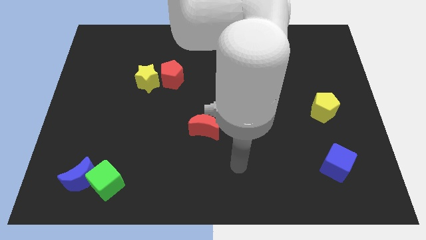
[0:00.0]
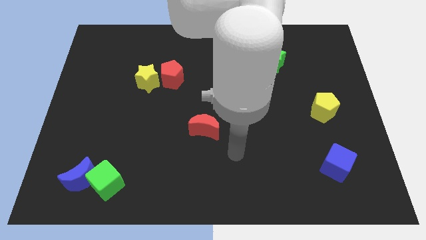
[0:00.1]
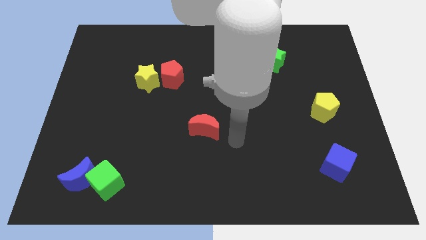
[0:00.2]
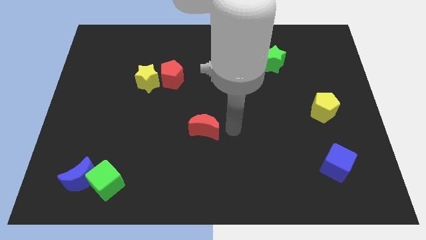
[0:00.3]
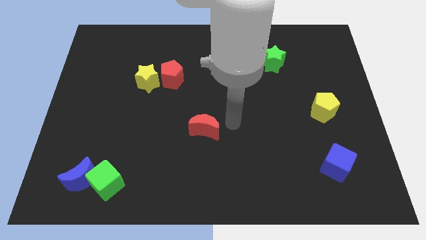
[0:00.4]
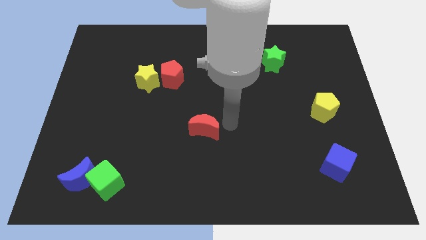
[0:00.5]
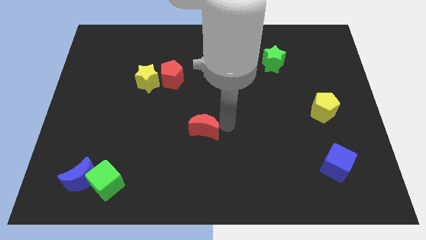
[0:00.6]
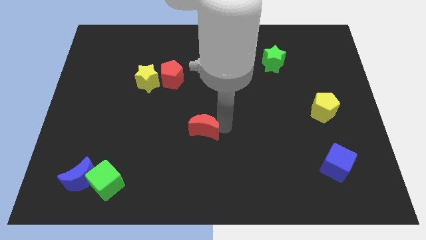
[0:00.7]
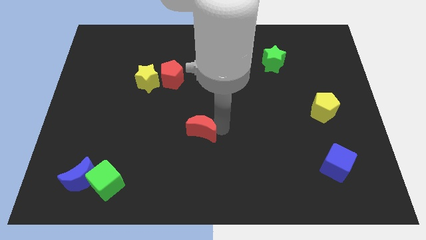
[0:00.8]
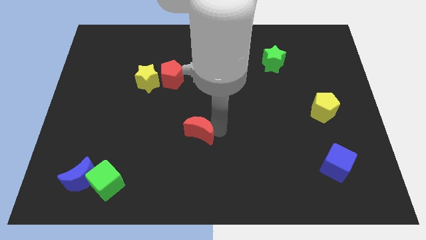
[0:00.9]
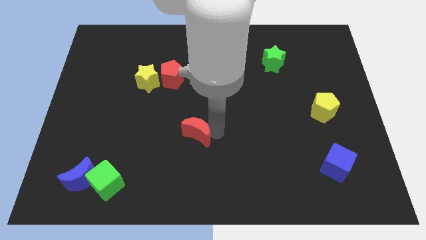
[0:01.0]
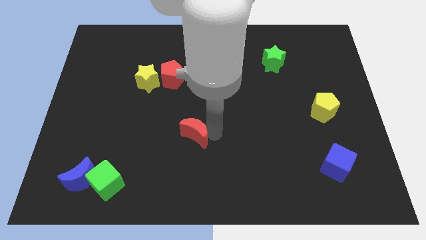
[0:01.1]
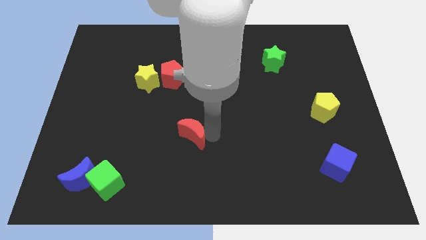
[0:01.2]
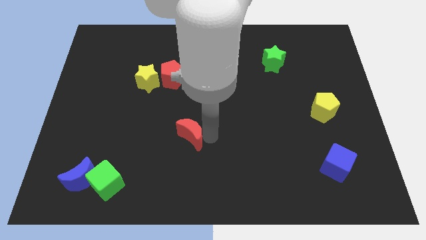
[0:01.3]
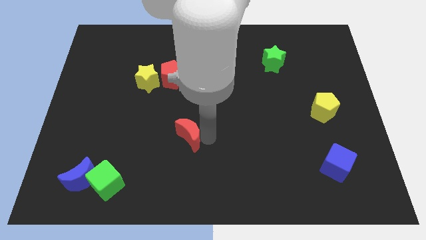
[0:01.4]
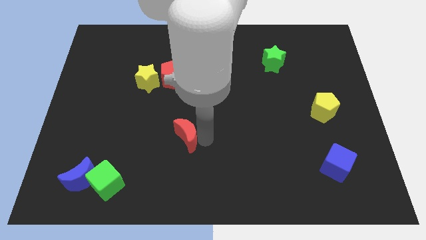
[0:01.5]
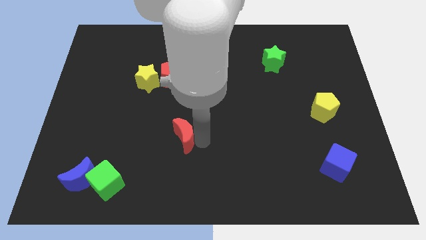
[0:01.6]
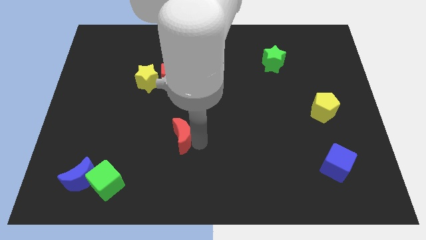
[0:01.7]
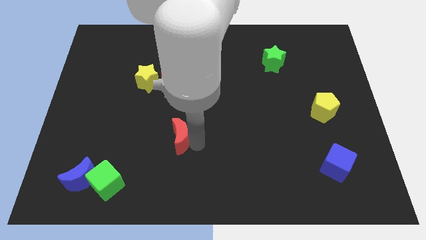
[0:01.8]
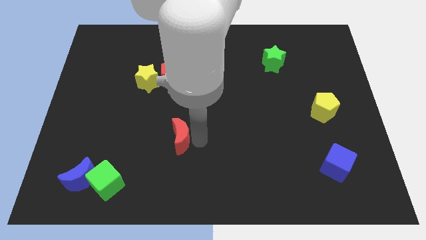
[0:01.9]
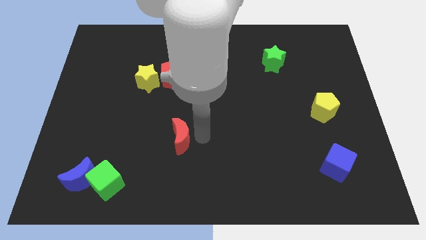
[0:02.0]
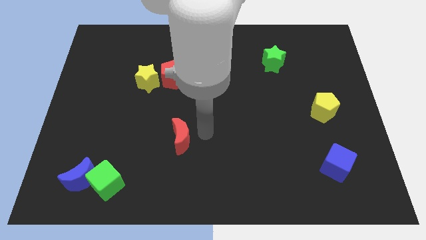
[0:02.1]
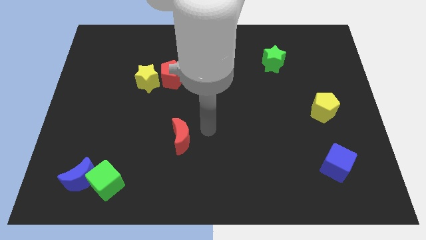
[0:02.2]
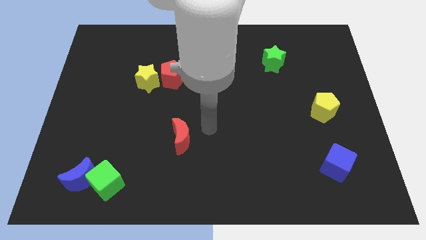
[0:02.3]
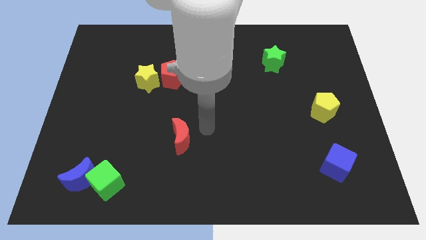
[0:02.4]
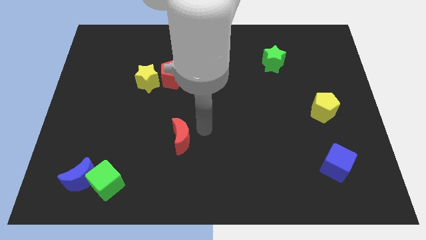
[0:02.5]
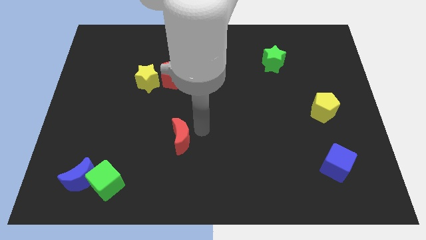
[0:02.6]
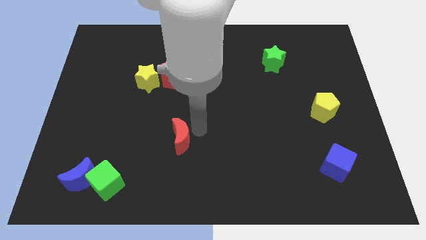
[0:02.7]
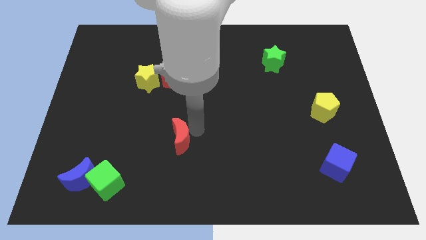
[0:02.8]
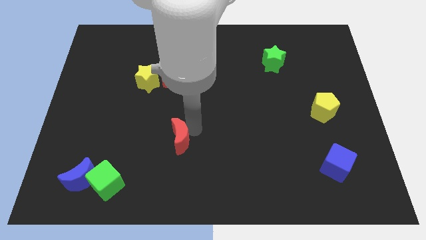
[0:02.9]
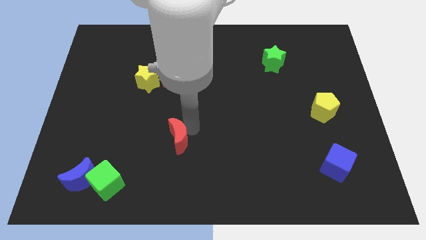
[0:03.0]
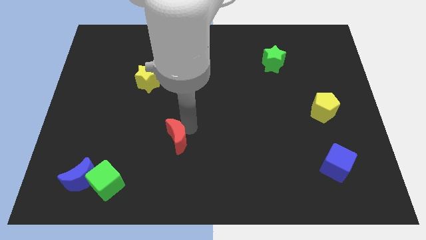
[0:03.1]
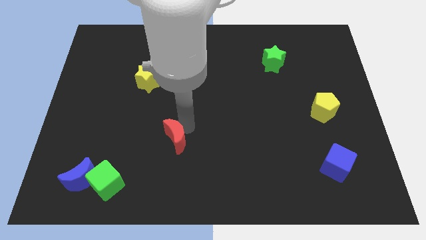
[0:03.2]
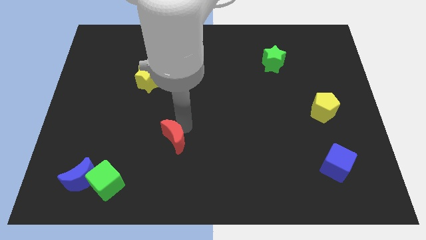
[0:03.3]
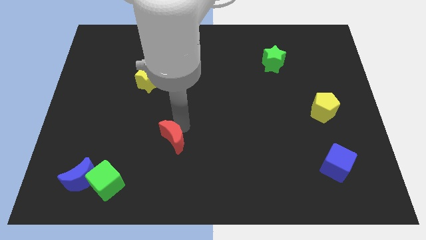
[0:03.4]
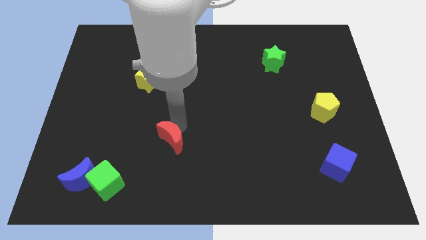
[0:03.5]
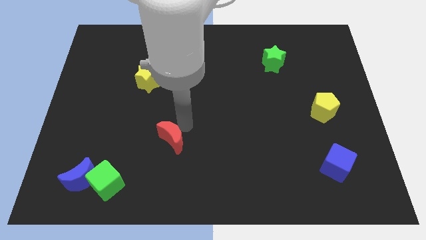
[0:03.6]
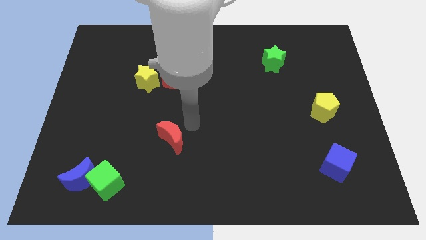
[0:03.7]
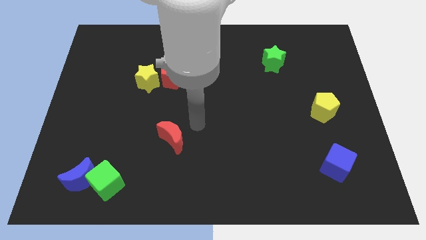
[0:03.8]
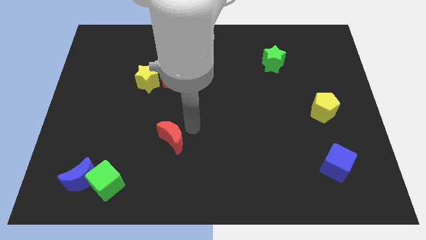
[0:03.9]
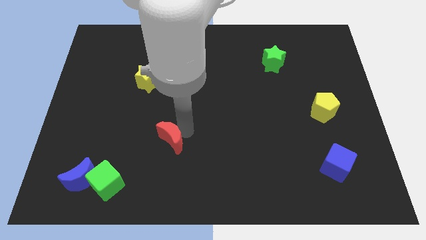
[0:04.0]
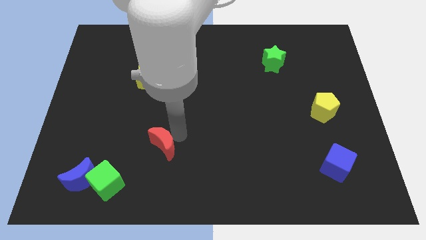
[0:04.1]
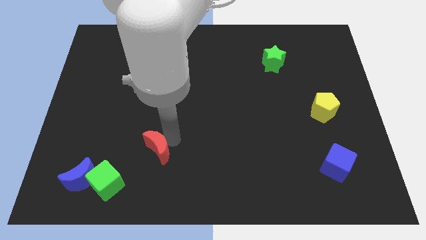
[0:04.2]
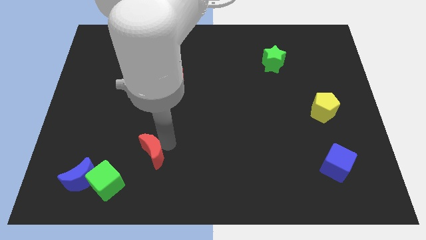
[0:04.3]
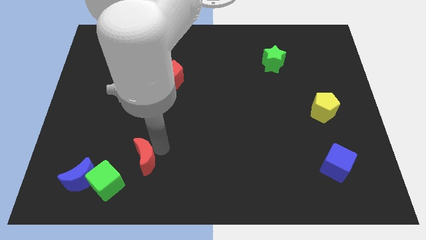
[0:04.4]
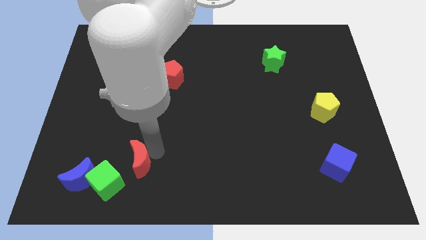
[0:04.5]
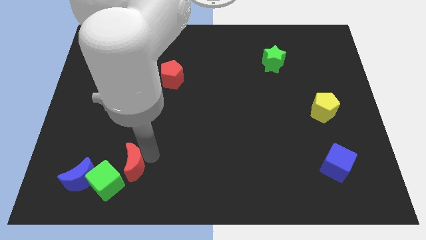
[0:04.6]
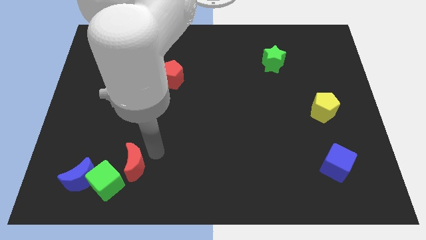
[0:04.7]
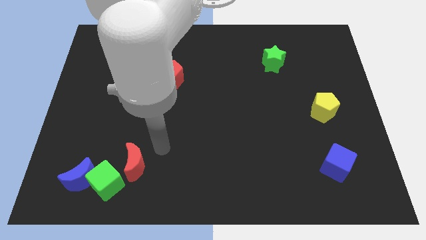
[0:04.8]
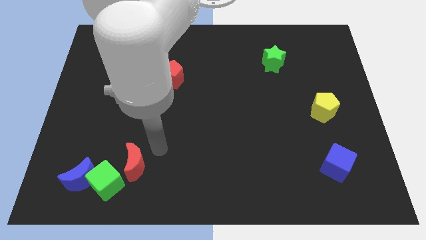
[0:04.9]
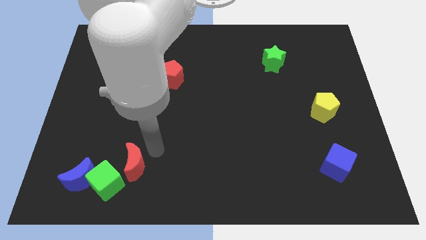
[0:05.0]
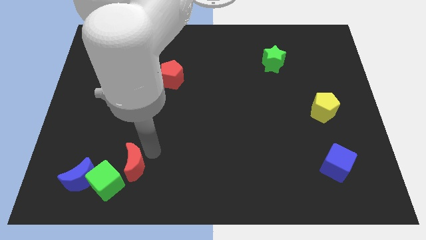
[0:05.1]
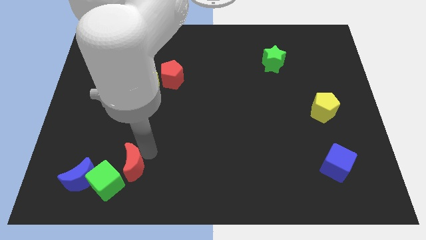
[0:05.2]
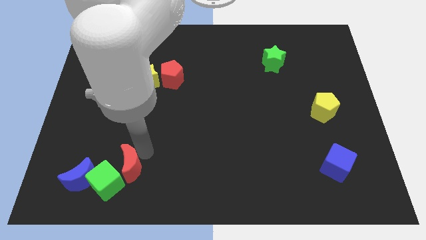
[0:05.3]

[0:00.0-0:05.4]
put the red moon next to the green cube

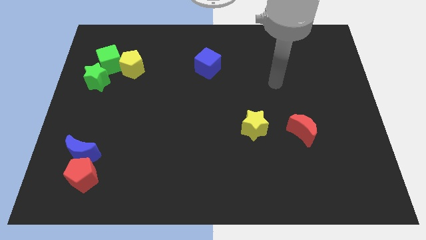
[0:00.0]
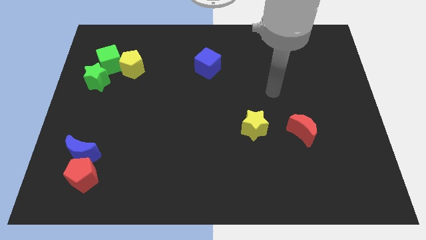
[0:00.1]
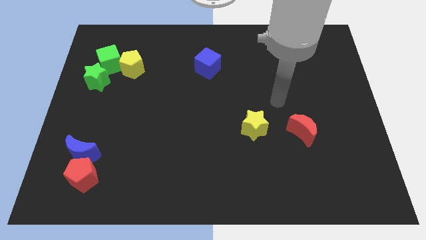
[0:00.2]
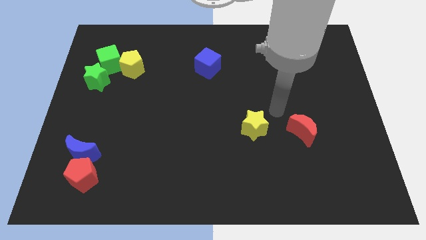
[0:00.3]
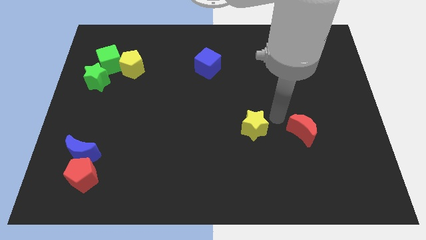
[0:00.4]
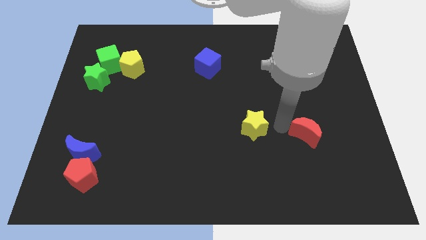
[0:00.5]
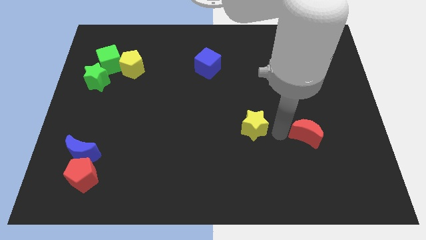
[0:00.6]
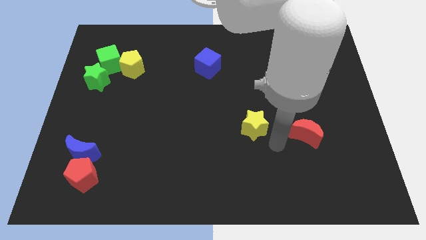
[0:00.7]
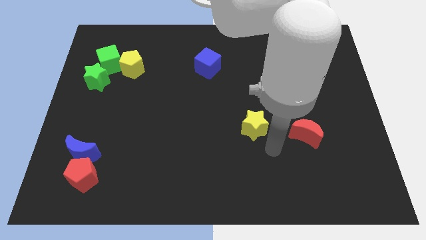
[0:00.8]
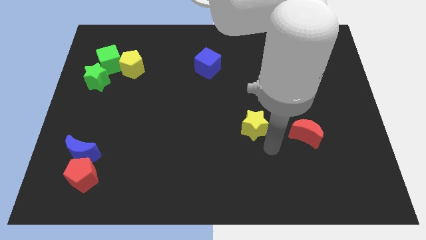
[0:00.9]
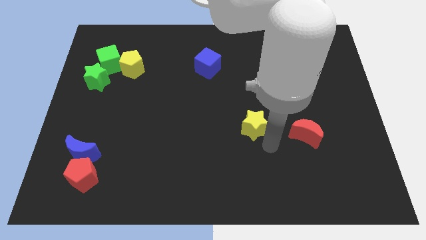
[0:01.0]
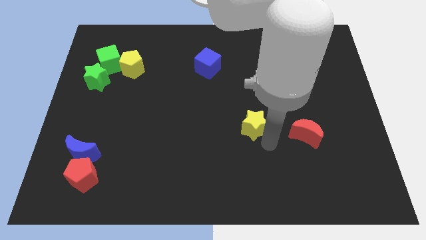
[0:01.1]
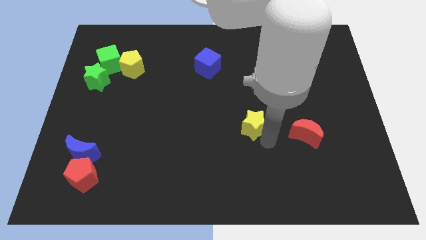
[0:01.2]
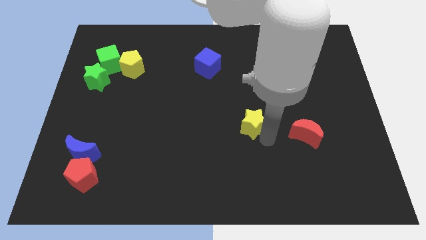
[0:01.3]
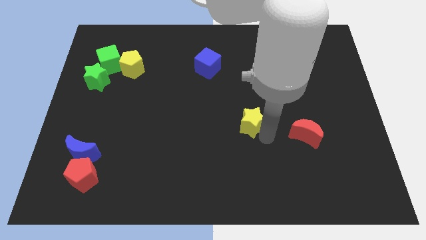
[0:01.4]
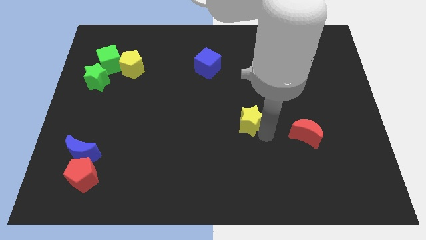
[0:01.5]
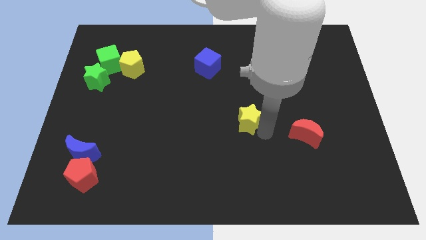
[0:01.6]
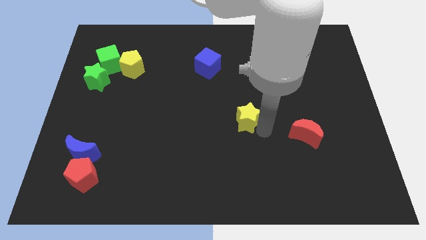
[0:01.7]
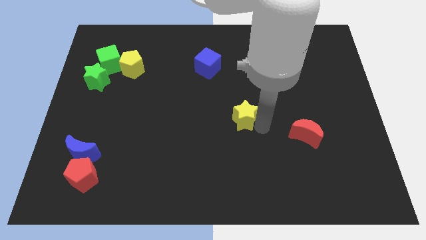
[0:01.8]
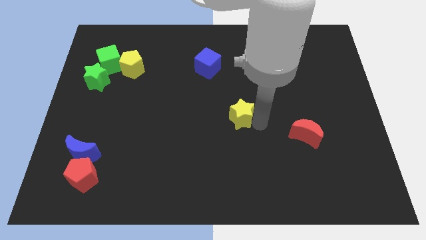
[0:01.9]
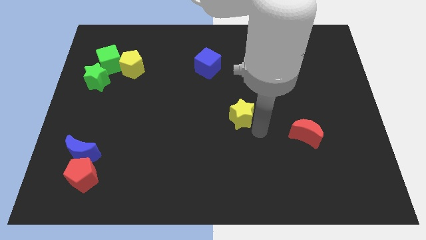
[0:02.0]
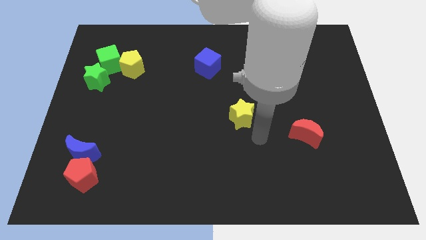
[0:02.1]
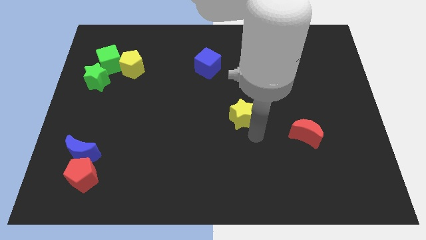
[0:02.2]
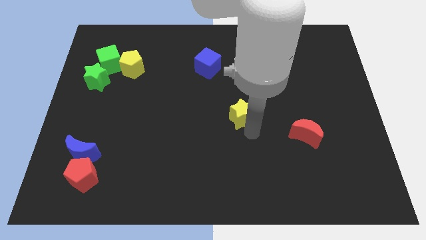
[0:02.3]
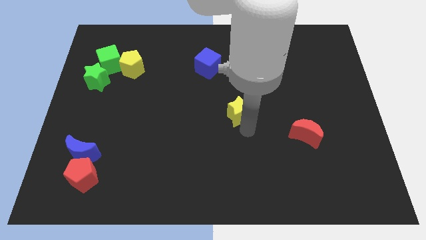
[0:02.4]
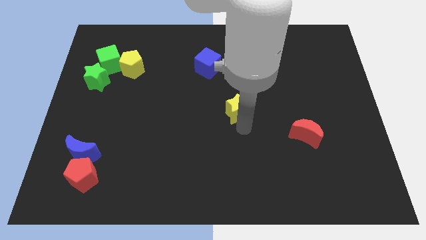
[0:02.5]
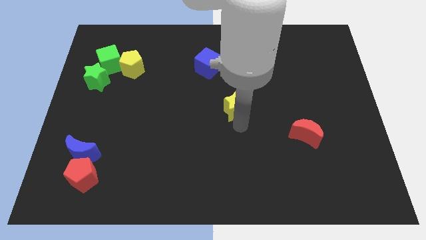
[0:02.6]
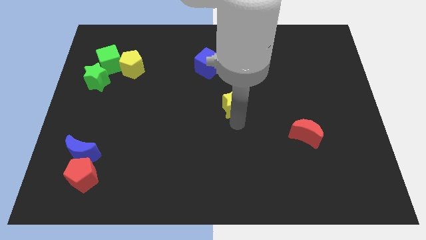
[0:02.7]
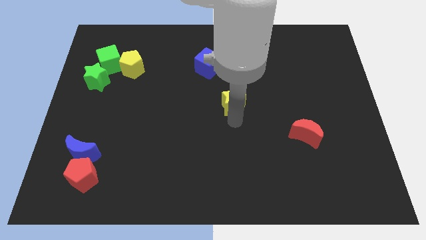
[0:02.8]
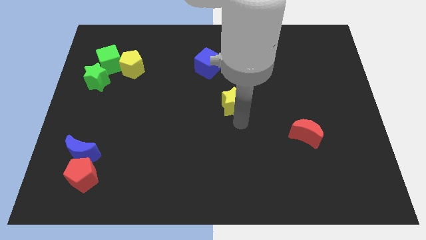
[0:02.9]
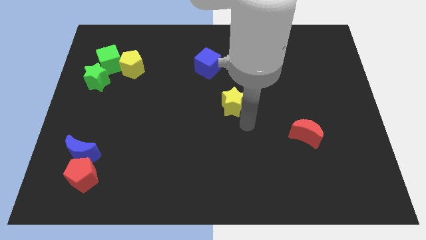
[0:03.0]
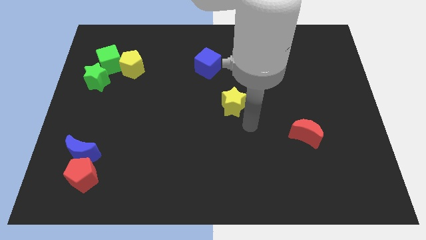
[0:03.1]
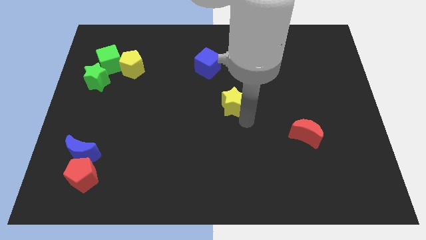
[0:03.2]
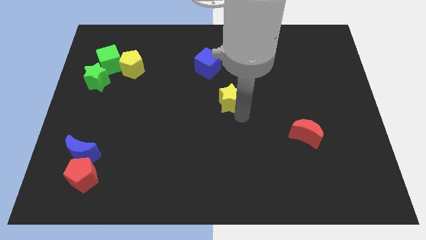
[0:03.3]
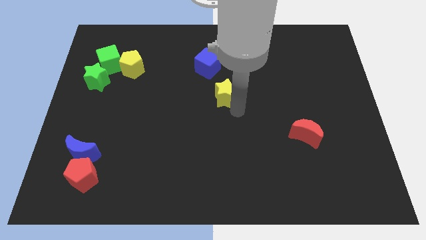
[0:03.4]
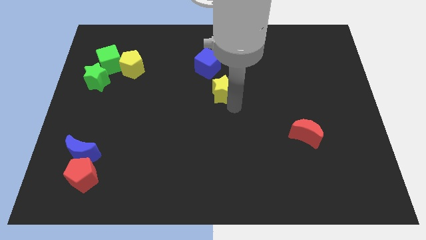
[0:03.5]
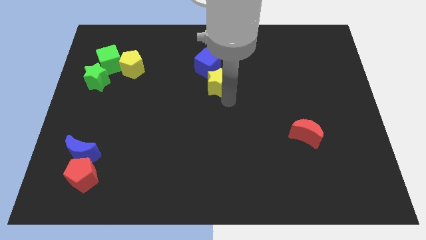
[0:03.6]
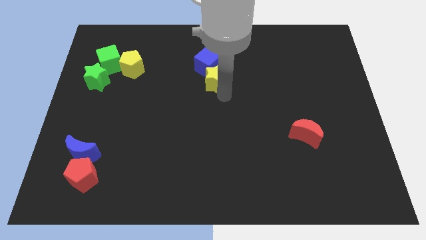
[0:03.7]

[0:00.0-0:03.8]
move the yellow star close to the blue cube
